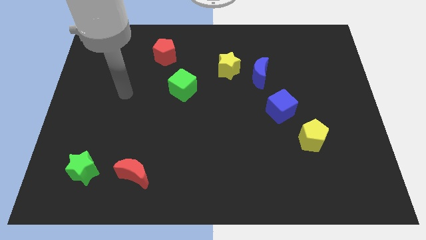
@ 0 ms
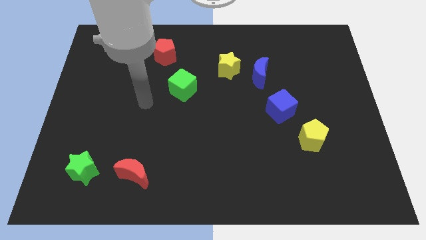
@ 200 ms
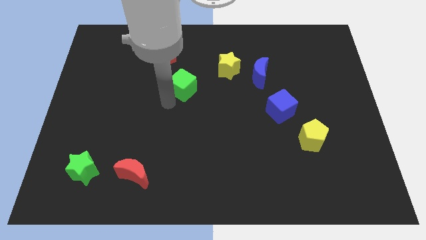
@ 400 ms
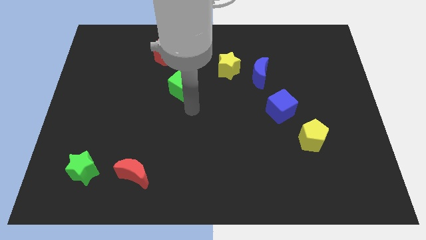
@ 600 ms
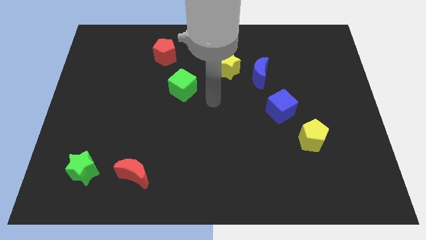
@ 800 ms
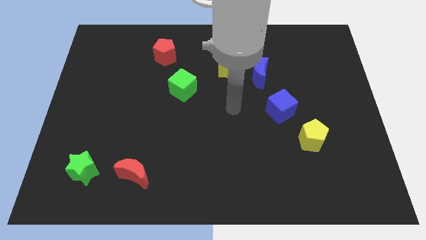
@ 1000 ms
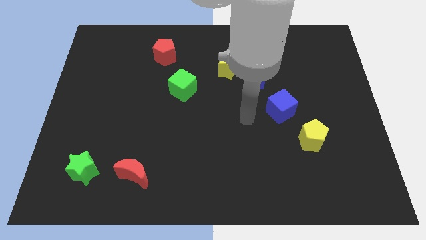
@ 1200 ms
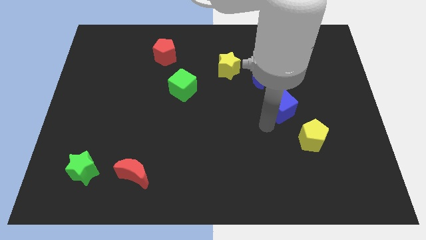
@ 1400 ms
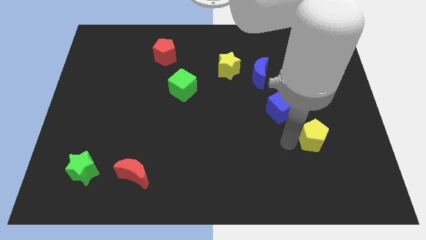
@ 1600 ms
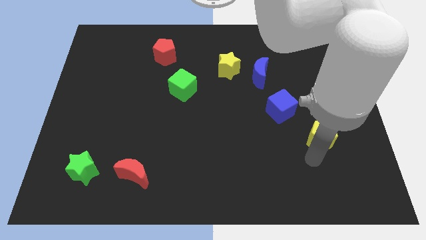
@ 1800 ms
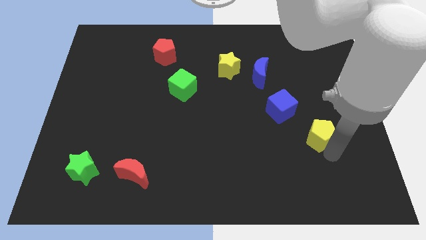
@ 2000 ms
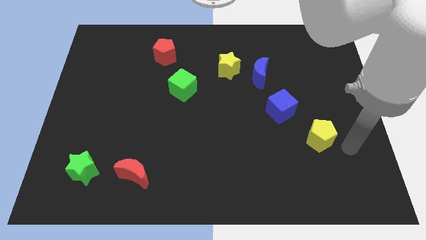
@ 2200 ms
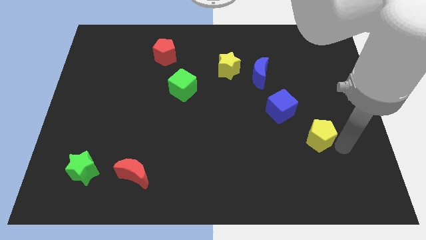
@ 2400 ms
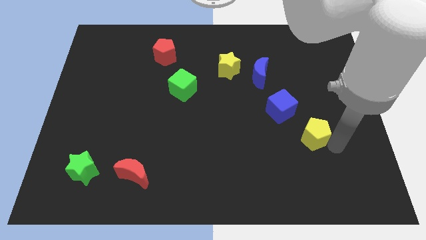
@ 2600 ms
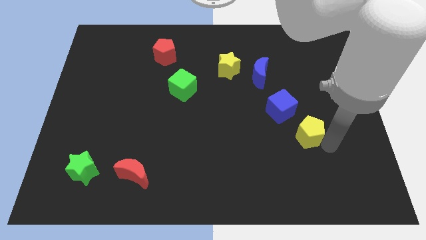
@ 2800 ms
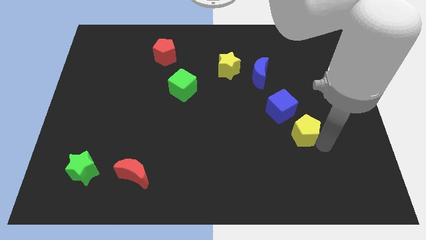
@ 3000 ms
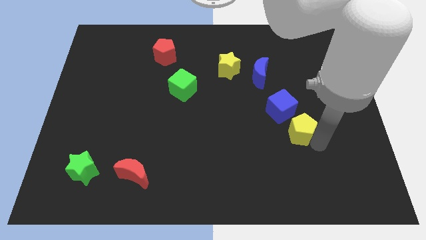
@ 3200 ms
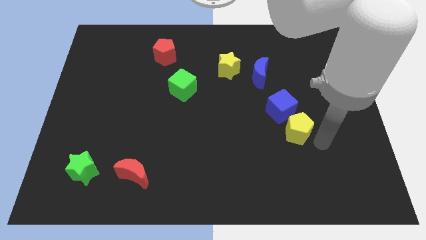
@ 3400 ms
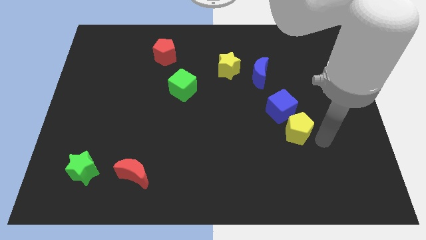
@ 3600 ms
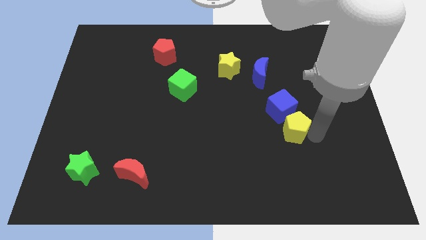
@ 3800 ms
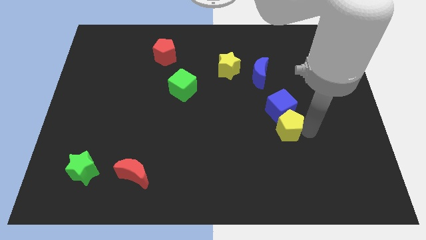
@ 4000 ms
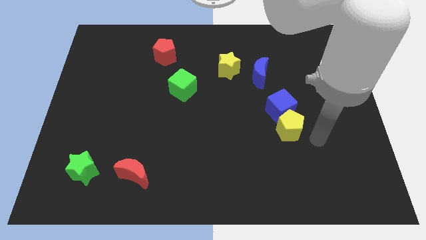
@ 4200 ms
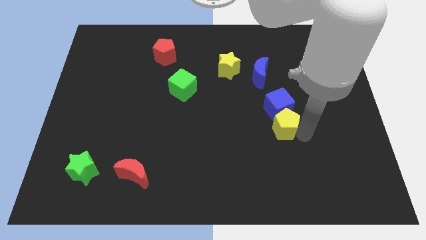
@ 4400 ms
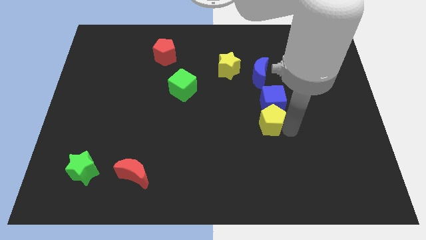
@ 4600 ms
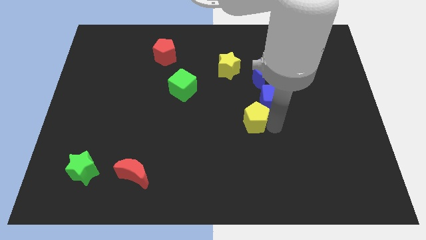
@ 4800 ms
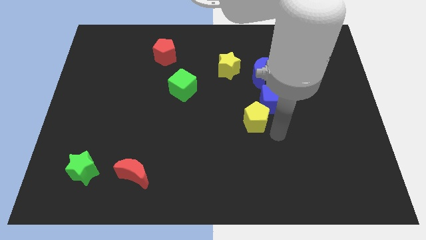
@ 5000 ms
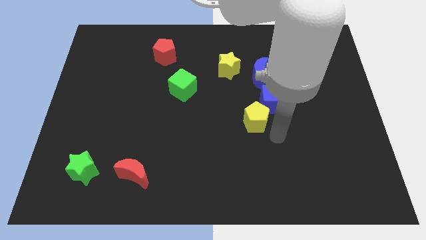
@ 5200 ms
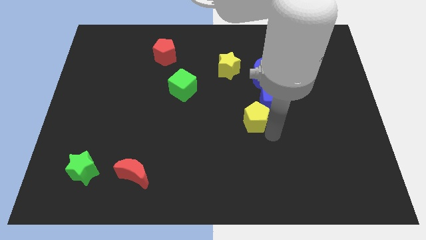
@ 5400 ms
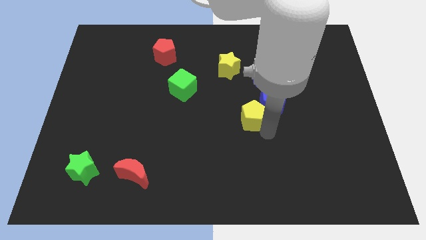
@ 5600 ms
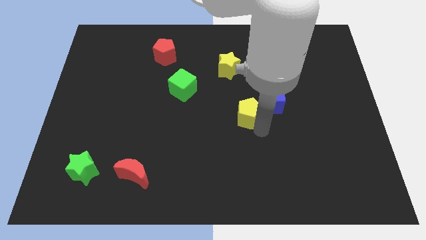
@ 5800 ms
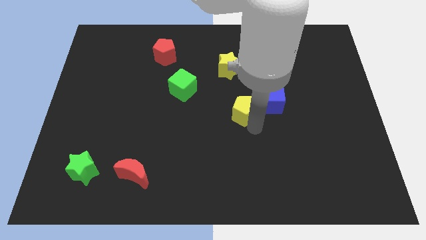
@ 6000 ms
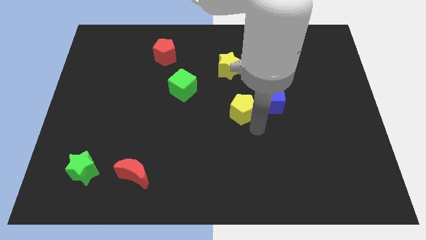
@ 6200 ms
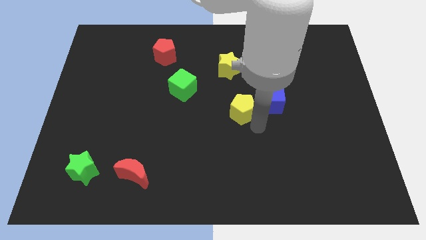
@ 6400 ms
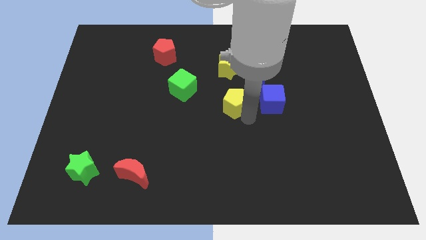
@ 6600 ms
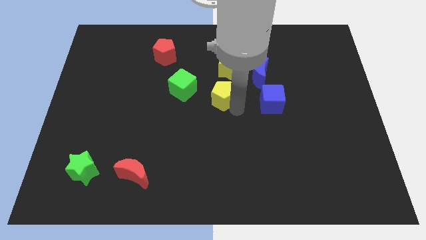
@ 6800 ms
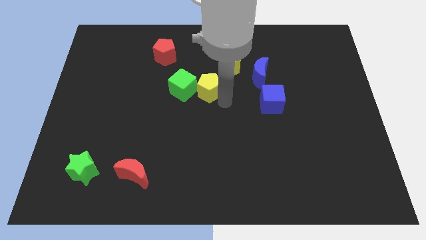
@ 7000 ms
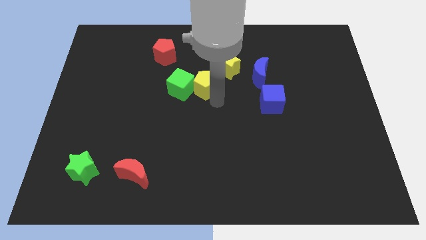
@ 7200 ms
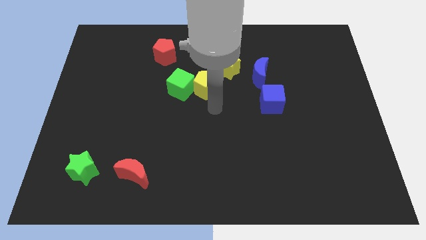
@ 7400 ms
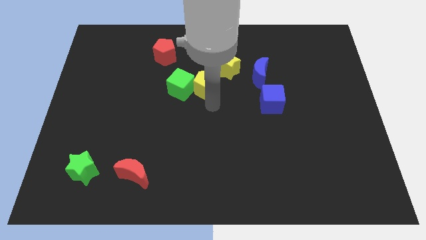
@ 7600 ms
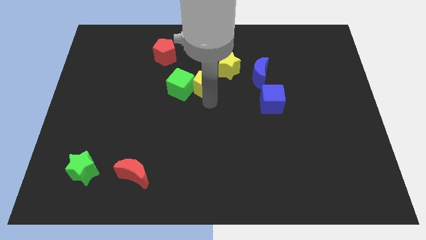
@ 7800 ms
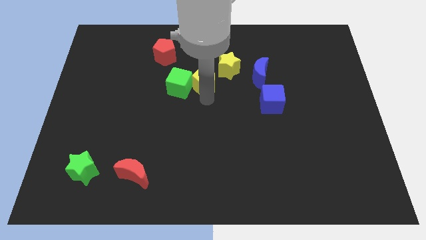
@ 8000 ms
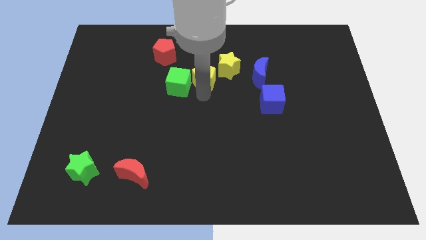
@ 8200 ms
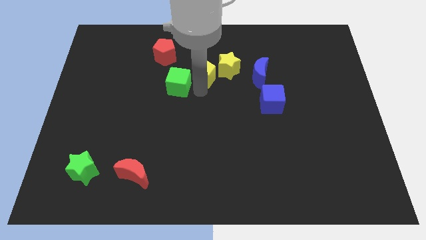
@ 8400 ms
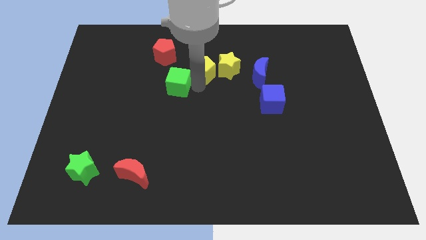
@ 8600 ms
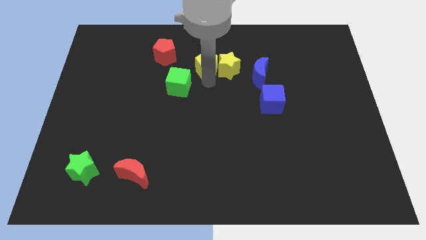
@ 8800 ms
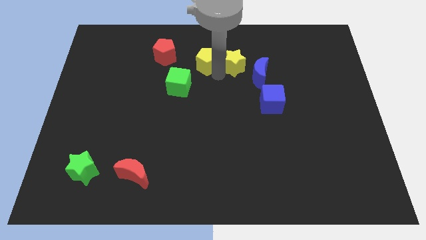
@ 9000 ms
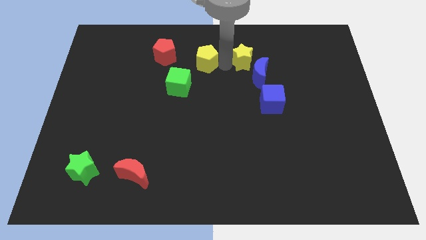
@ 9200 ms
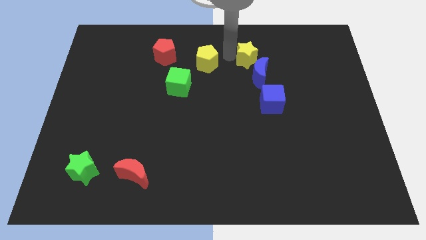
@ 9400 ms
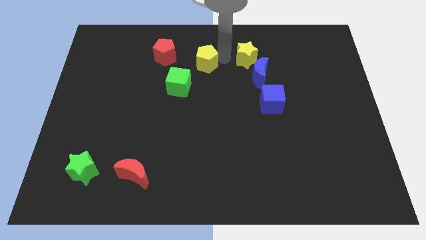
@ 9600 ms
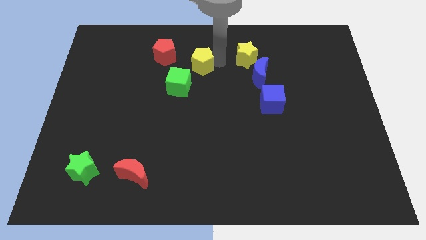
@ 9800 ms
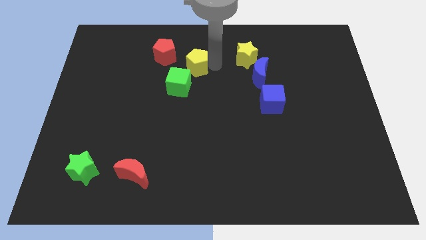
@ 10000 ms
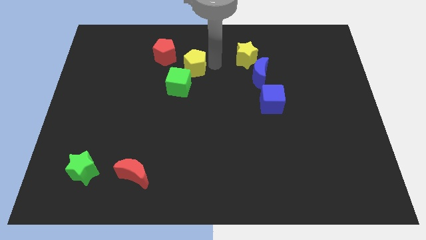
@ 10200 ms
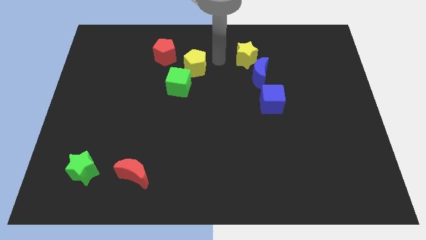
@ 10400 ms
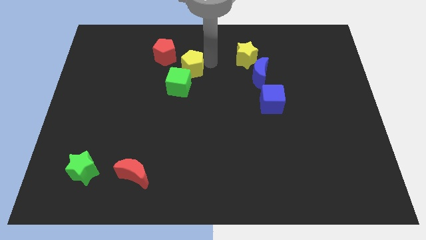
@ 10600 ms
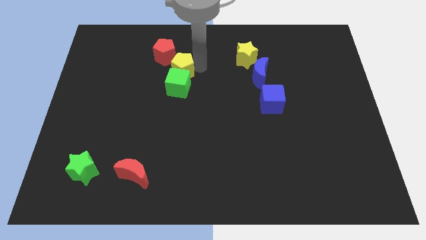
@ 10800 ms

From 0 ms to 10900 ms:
slide the yellow pentagon to the top left side of the green cube

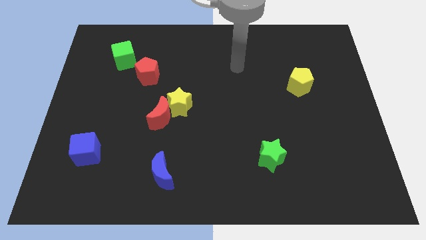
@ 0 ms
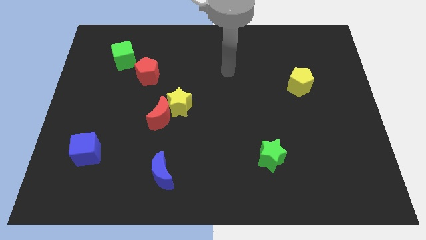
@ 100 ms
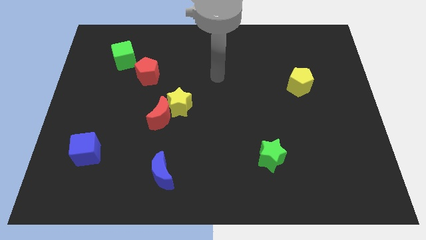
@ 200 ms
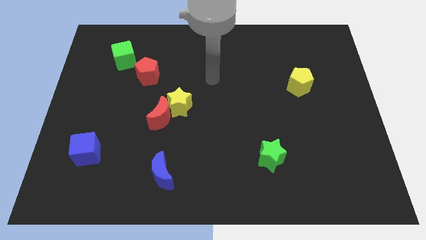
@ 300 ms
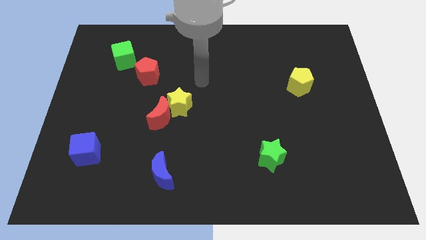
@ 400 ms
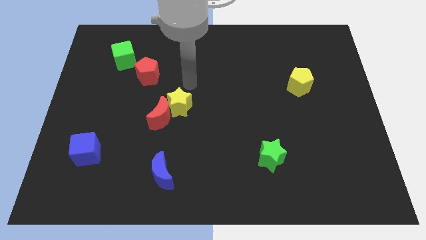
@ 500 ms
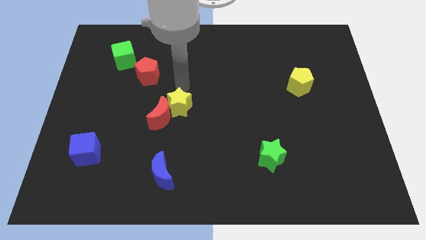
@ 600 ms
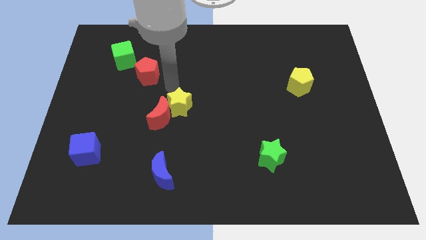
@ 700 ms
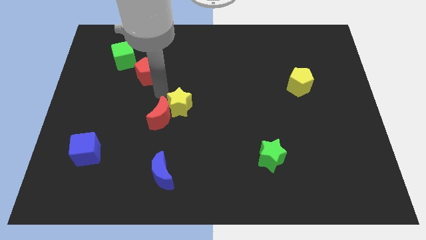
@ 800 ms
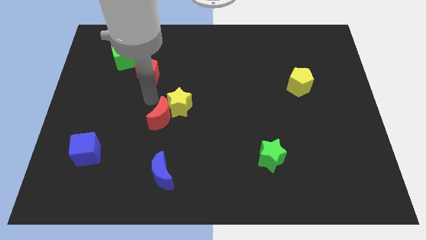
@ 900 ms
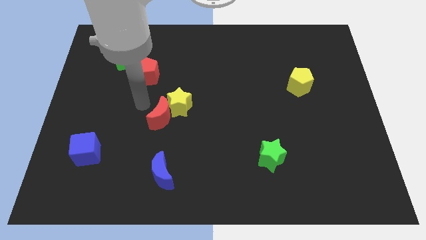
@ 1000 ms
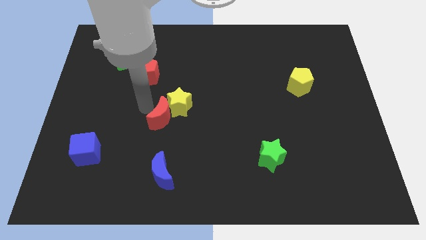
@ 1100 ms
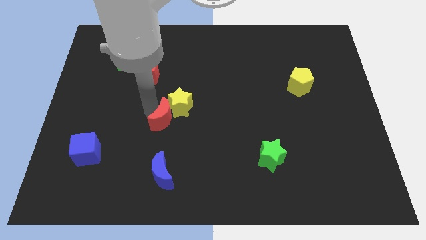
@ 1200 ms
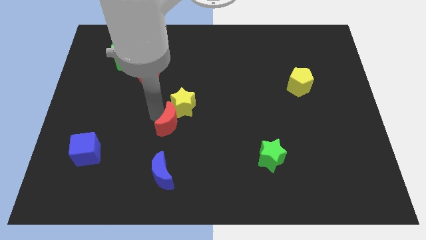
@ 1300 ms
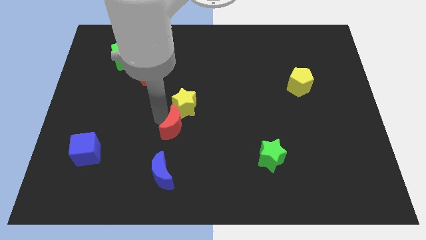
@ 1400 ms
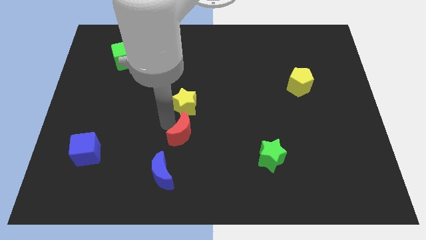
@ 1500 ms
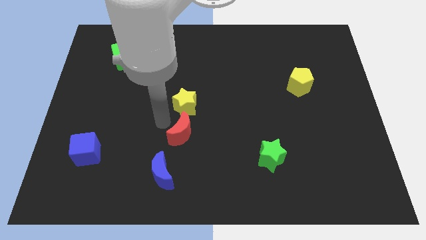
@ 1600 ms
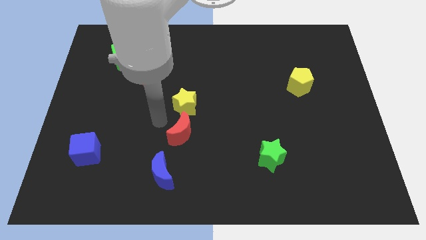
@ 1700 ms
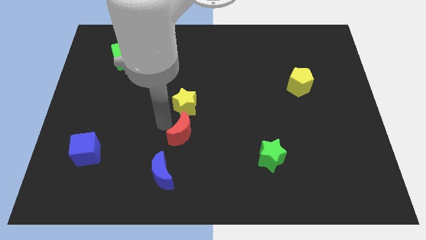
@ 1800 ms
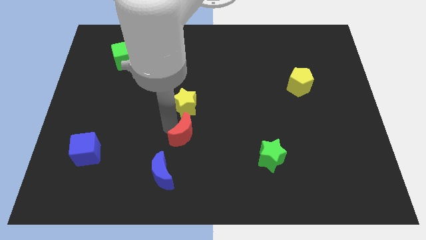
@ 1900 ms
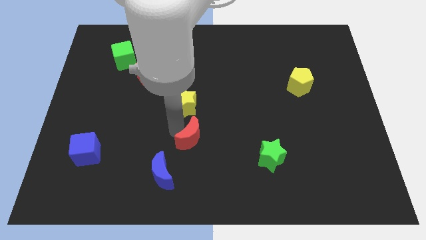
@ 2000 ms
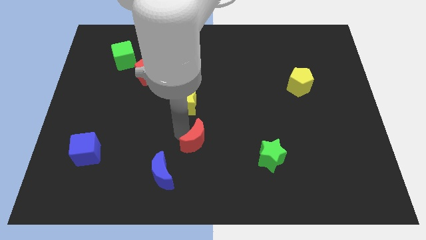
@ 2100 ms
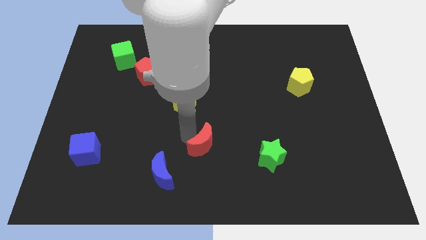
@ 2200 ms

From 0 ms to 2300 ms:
put the red moon just left of the green star
